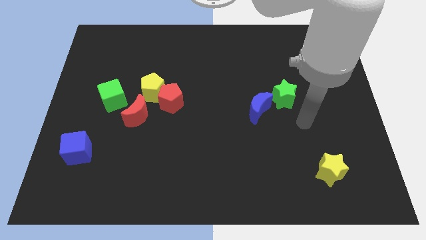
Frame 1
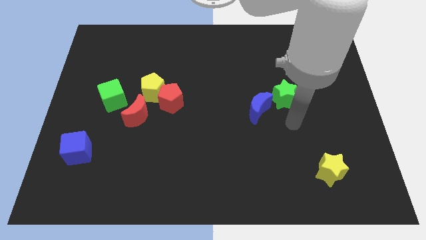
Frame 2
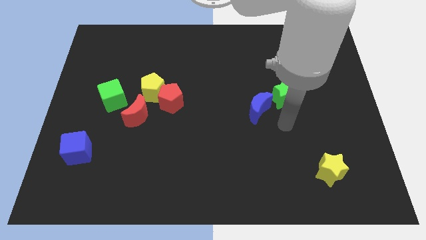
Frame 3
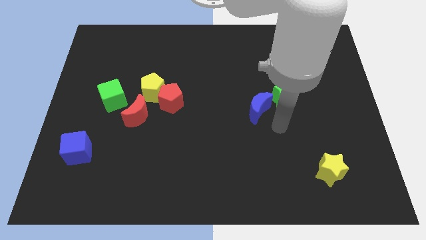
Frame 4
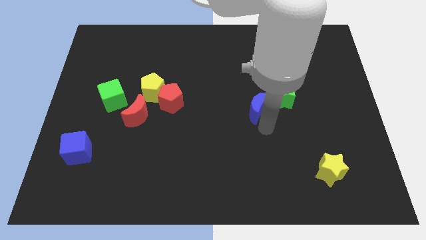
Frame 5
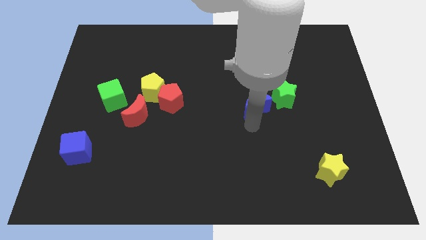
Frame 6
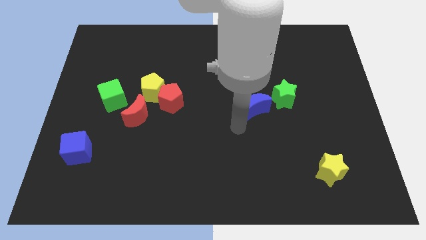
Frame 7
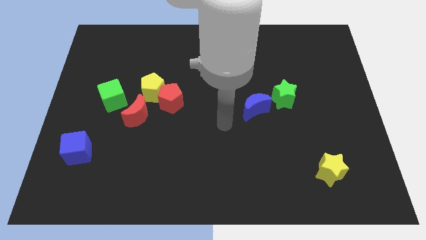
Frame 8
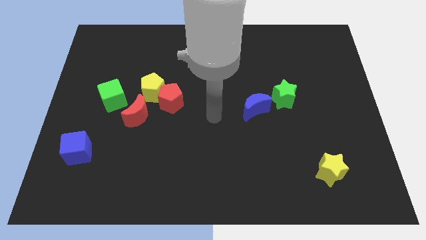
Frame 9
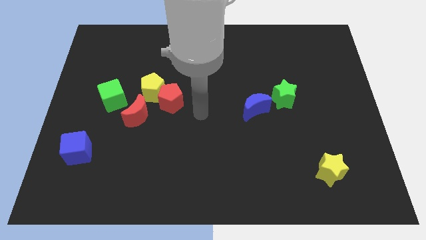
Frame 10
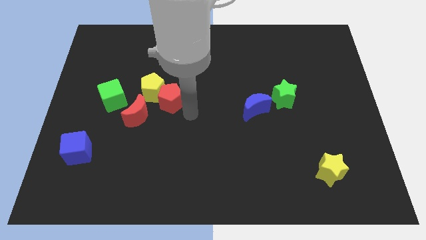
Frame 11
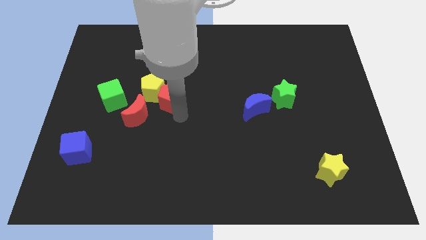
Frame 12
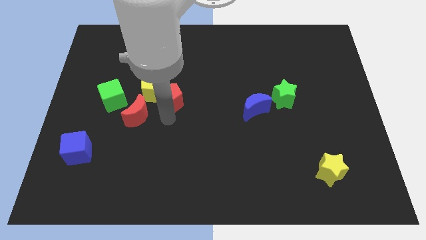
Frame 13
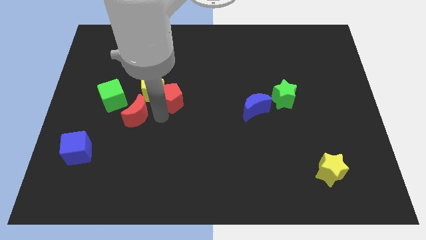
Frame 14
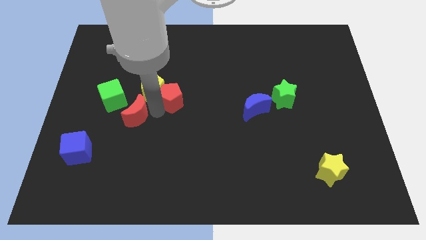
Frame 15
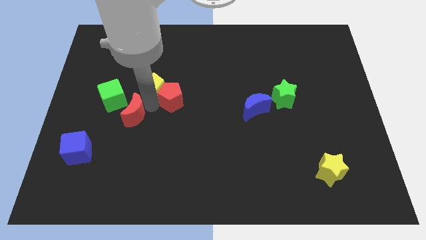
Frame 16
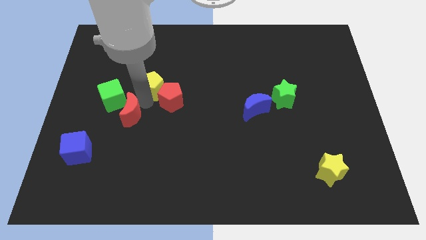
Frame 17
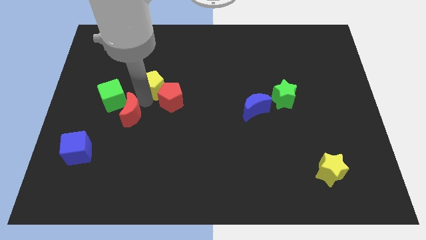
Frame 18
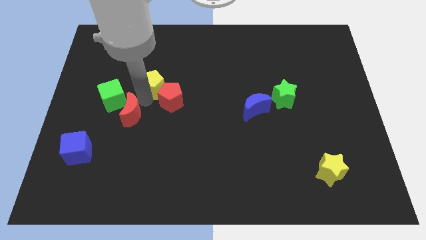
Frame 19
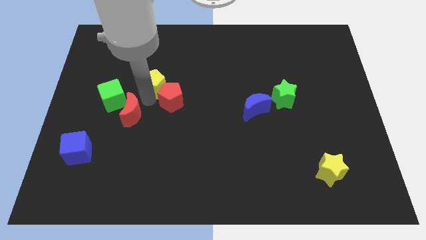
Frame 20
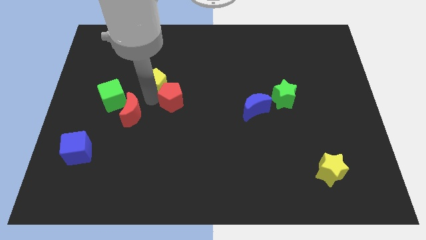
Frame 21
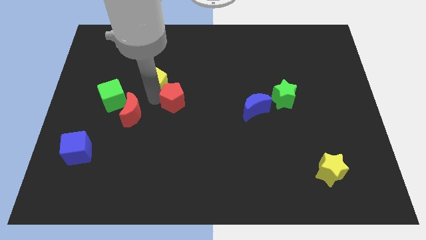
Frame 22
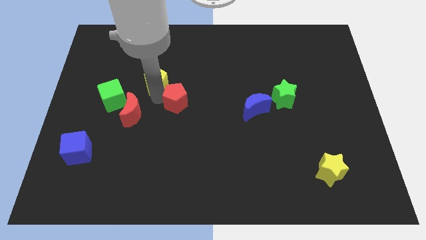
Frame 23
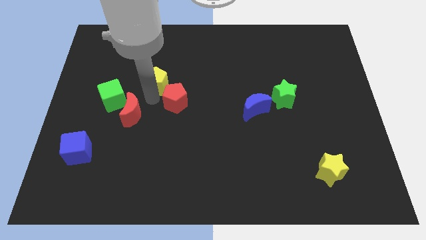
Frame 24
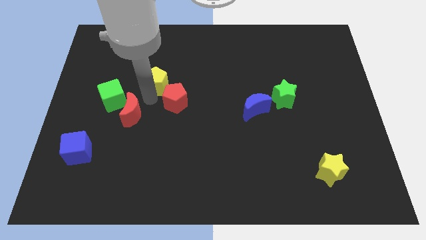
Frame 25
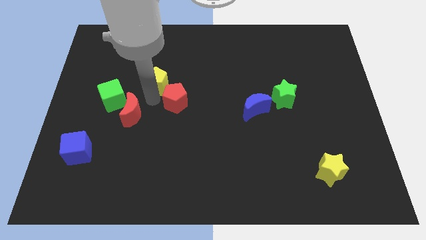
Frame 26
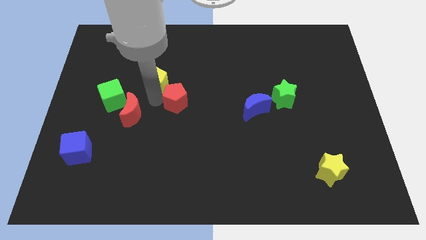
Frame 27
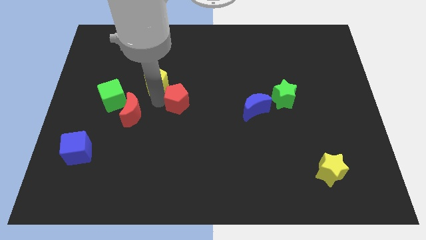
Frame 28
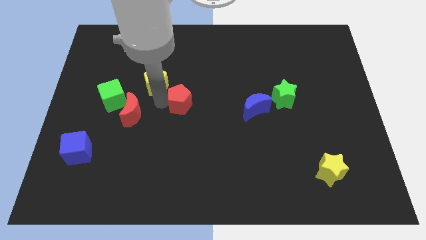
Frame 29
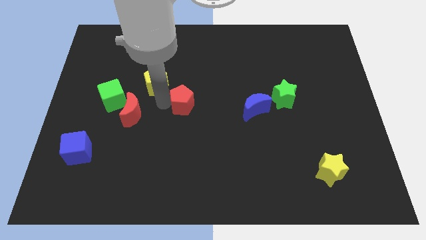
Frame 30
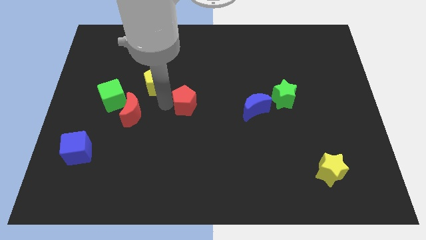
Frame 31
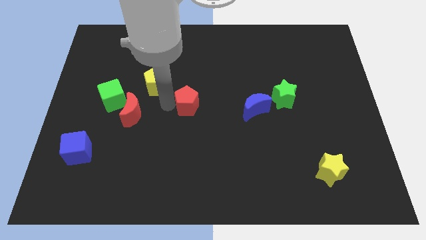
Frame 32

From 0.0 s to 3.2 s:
move the red pentagon away from the yellow pentagon and red moon

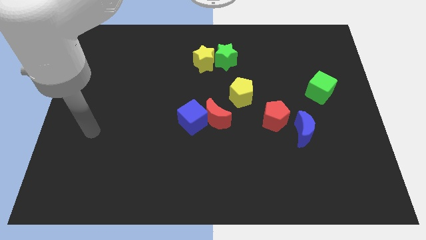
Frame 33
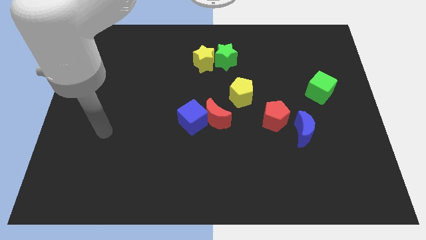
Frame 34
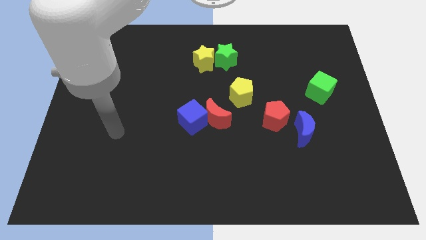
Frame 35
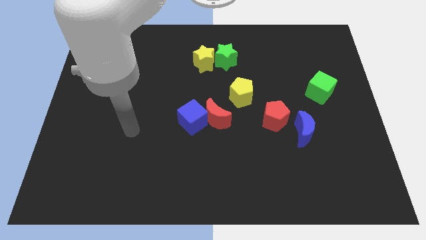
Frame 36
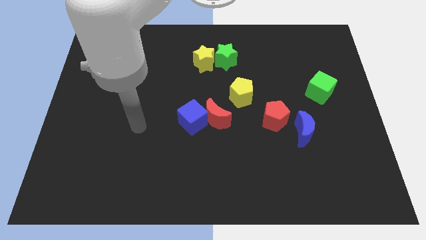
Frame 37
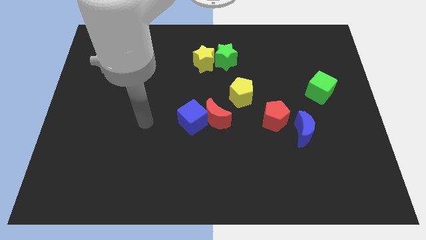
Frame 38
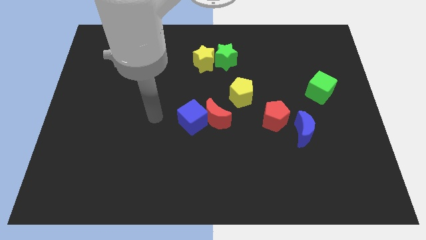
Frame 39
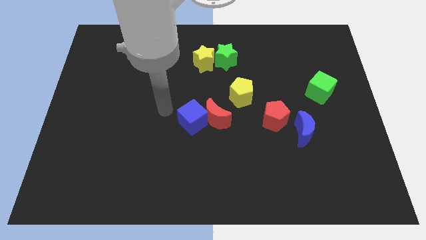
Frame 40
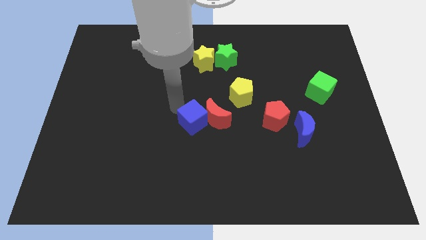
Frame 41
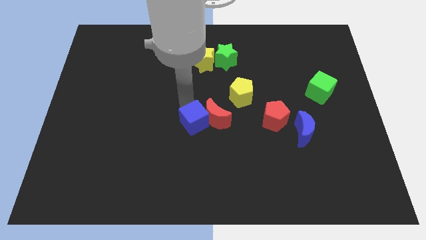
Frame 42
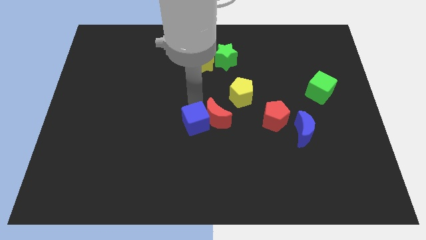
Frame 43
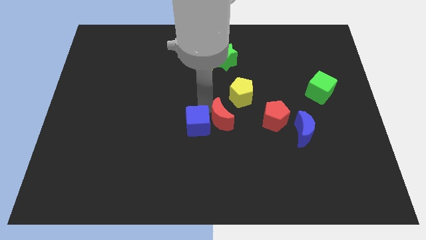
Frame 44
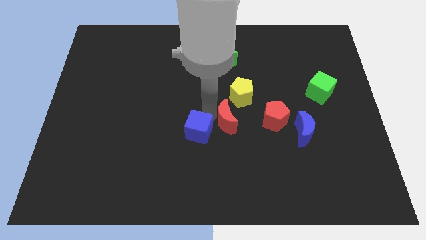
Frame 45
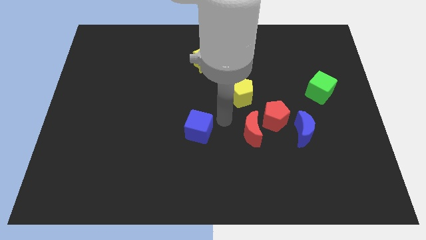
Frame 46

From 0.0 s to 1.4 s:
pull the blue cube apart from the red moon

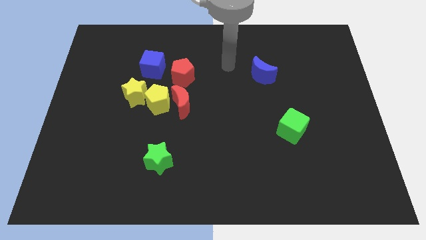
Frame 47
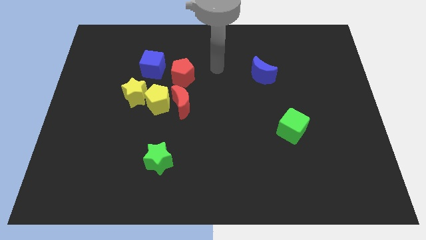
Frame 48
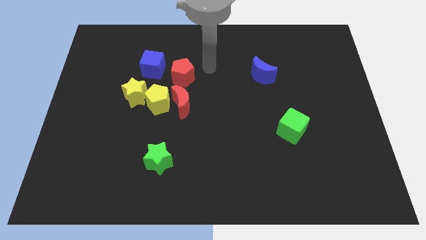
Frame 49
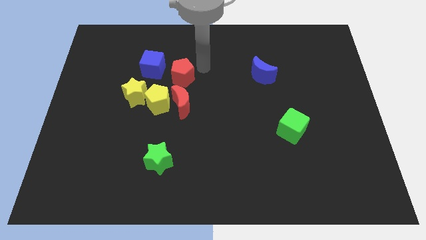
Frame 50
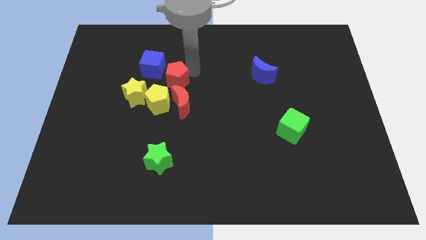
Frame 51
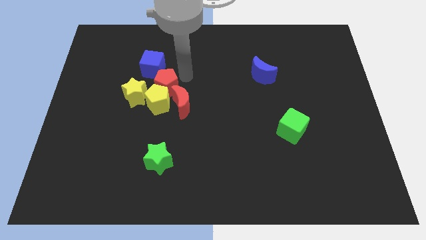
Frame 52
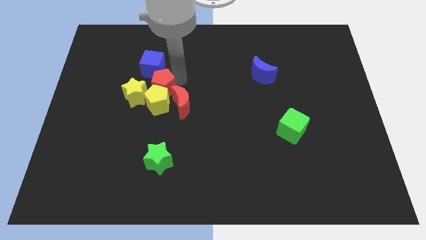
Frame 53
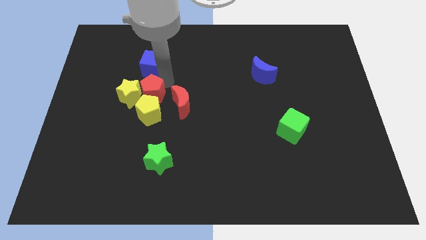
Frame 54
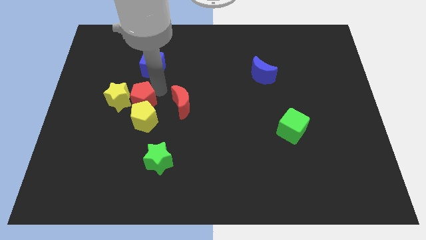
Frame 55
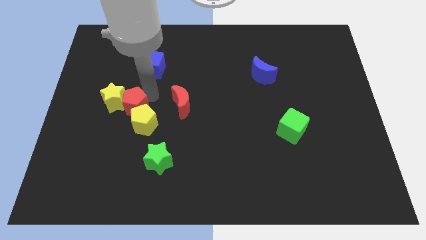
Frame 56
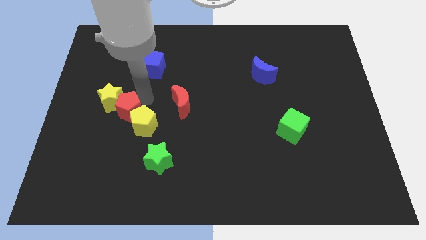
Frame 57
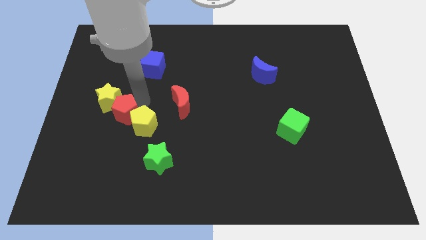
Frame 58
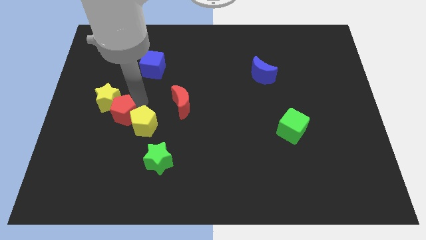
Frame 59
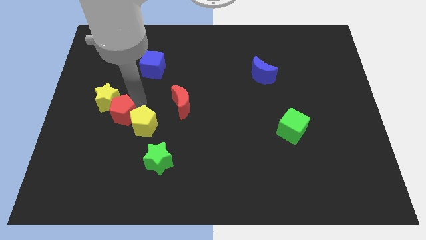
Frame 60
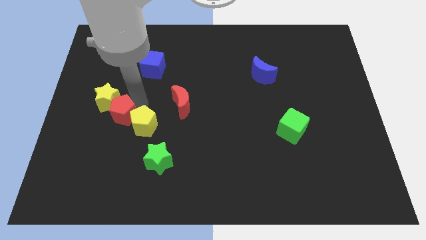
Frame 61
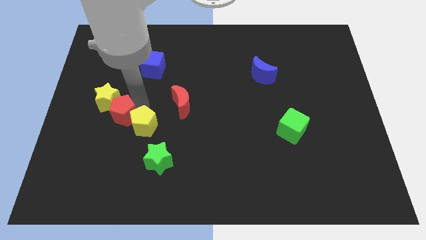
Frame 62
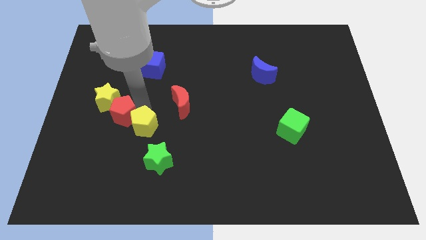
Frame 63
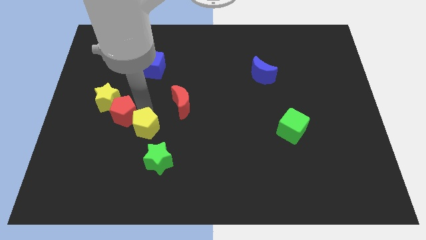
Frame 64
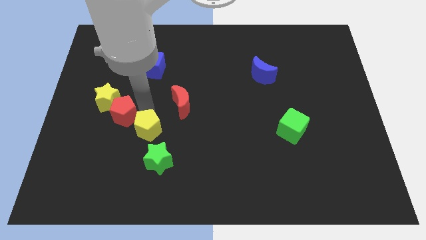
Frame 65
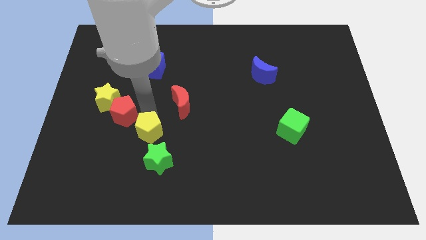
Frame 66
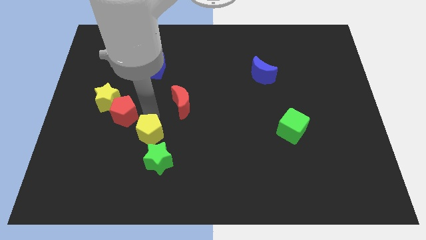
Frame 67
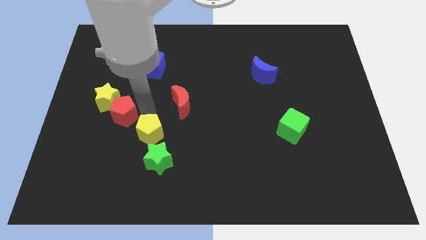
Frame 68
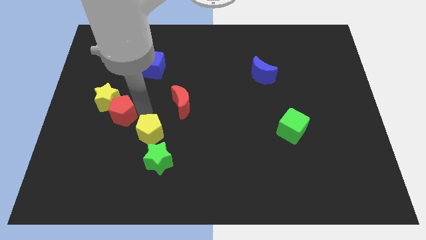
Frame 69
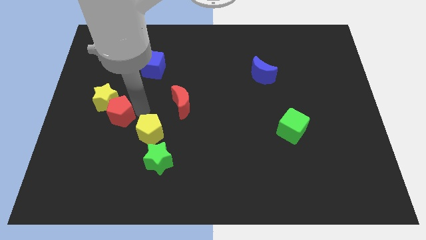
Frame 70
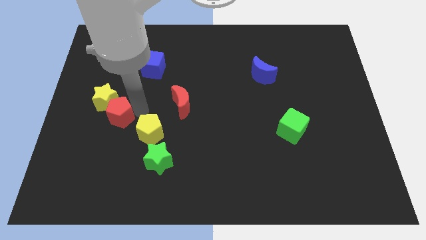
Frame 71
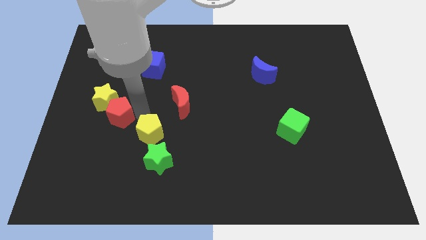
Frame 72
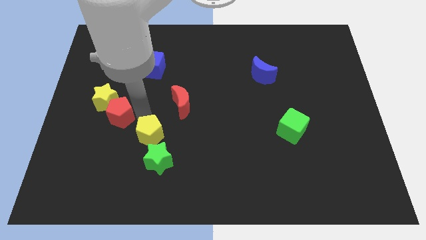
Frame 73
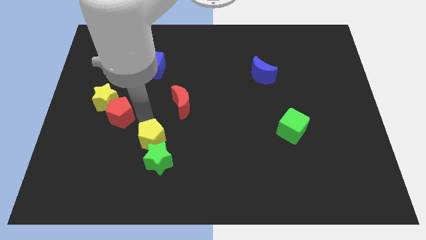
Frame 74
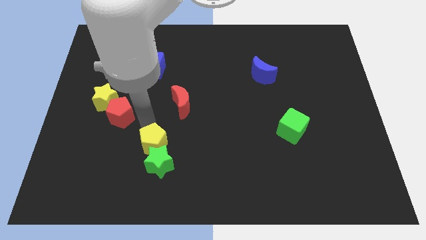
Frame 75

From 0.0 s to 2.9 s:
pull the yellow pentagon apart from the red moon, yellow star, and red pentagon

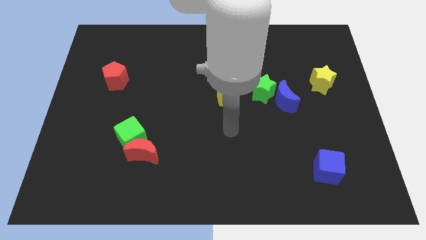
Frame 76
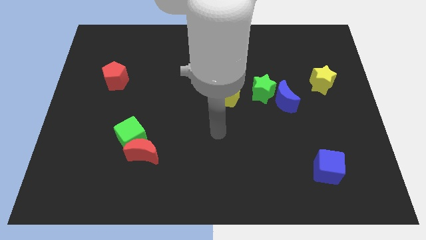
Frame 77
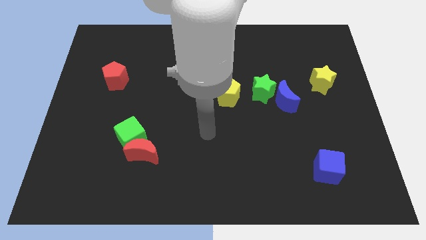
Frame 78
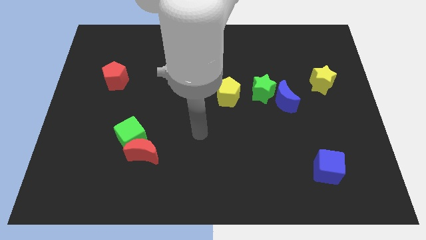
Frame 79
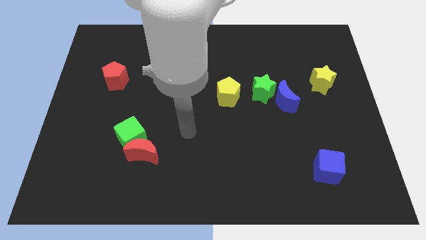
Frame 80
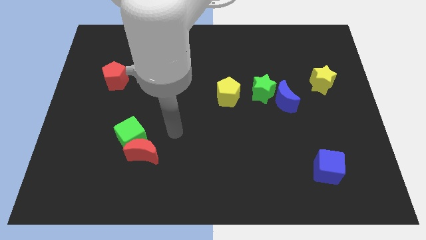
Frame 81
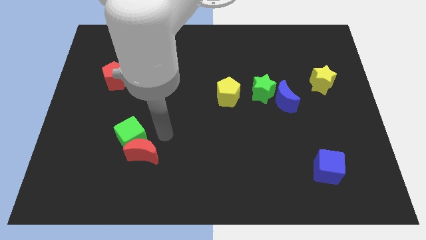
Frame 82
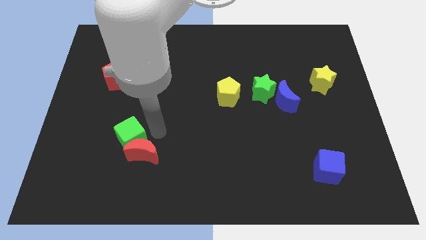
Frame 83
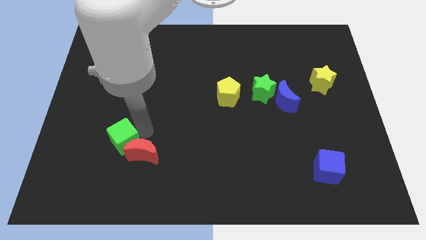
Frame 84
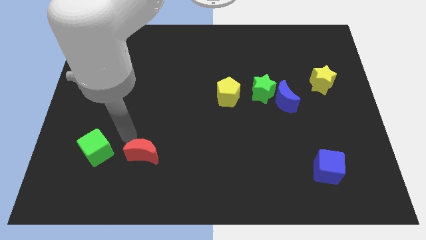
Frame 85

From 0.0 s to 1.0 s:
separate the red moon from the green cube

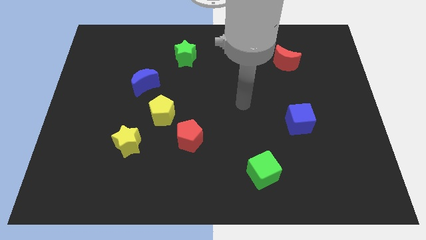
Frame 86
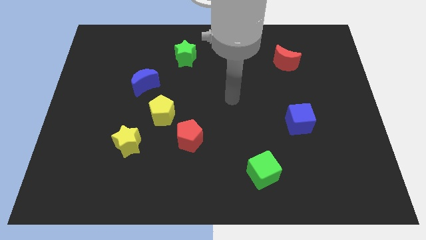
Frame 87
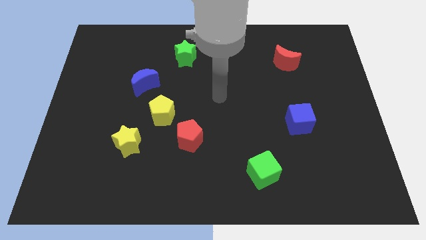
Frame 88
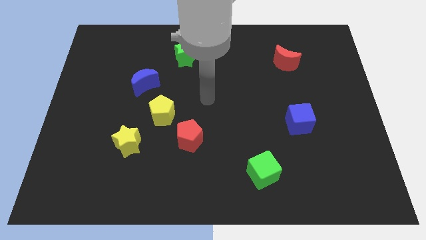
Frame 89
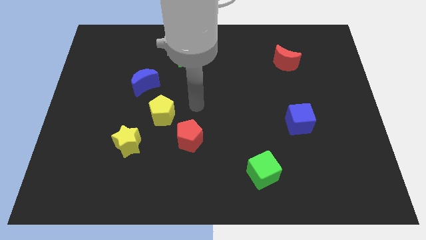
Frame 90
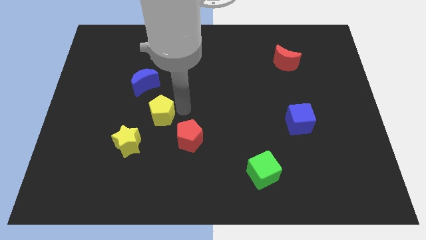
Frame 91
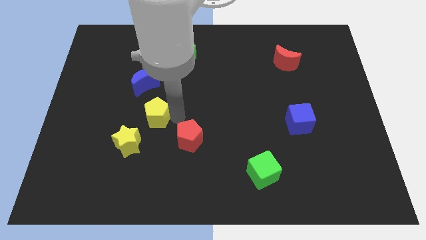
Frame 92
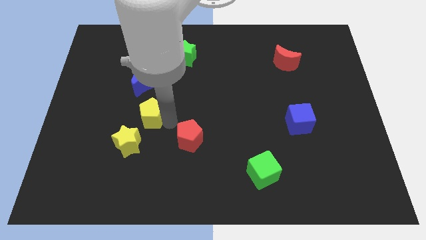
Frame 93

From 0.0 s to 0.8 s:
pull the red pentagon apart from the yellow pentagon
